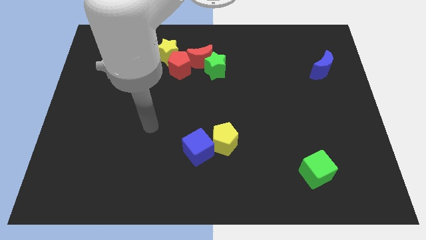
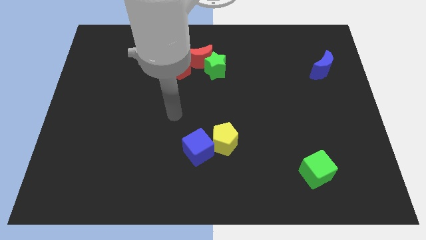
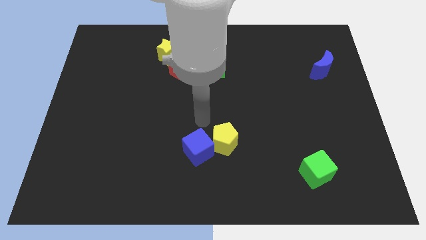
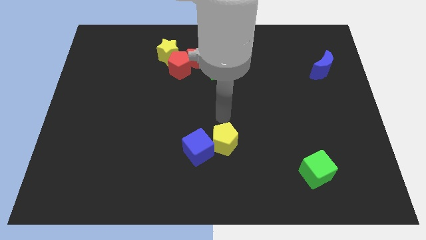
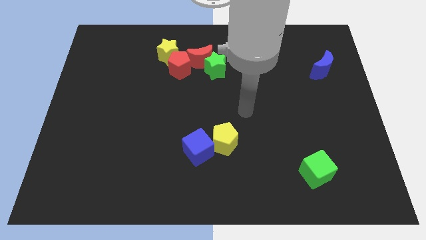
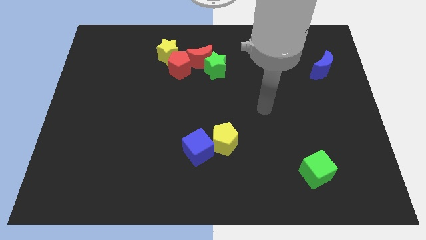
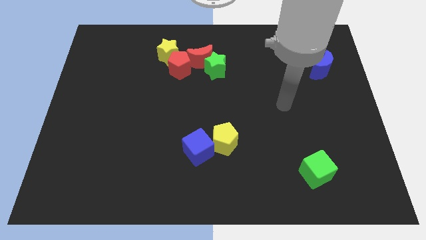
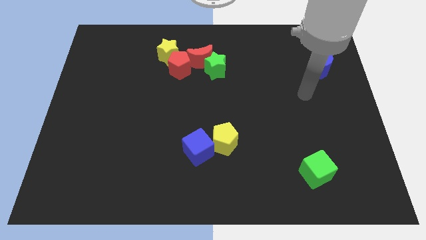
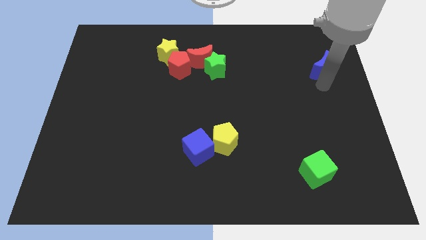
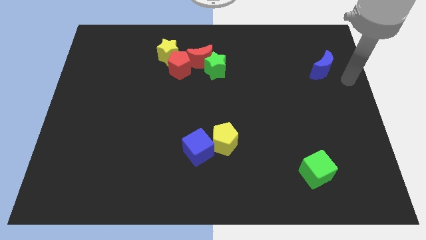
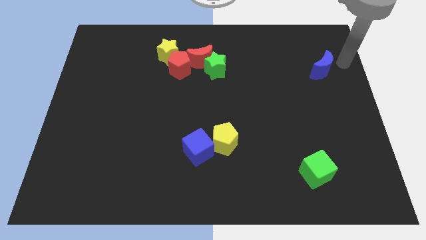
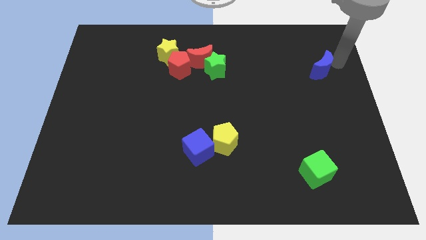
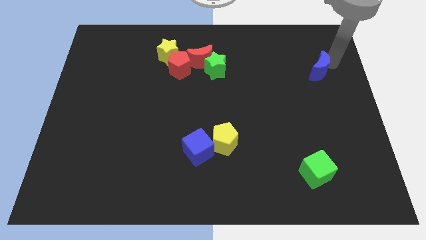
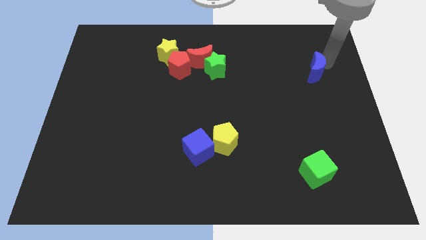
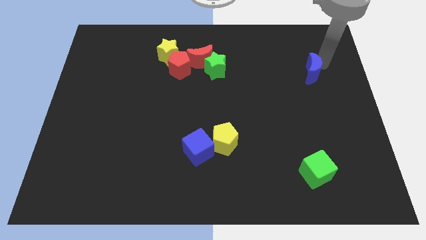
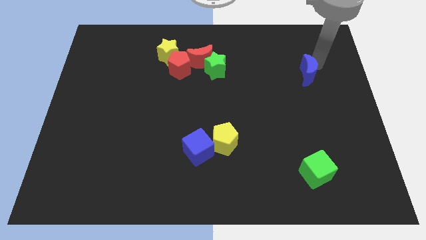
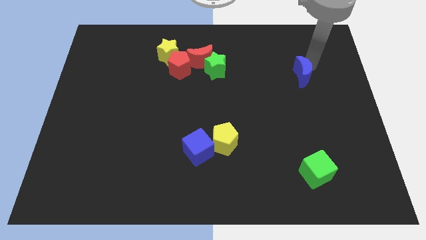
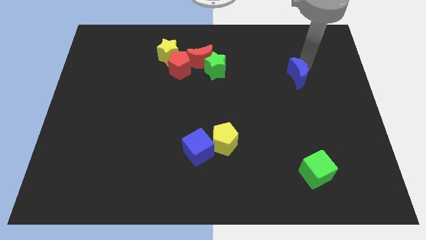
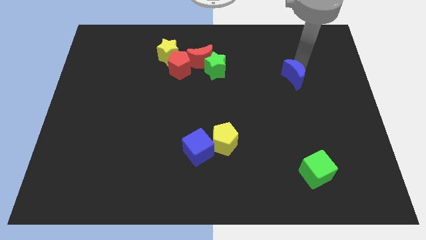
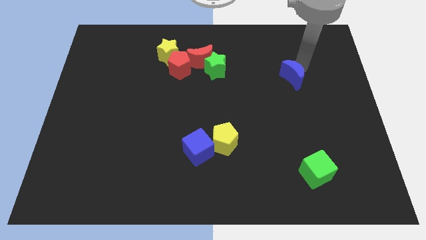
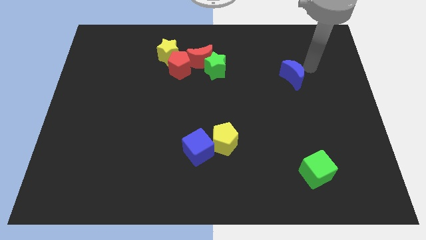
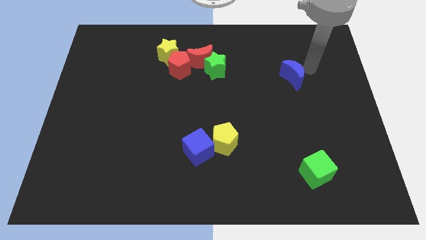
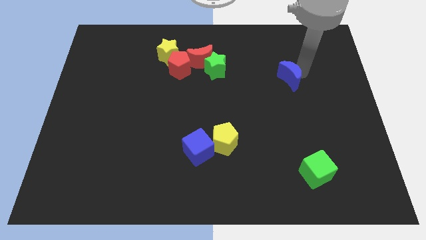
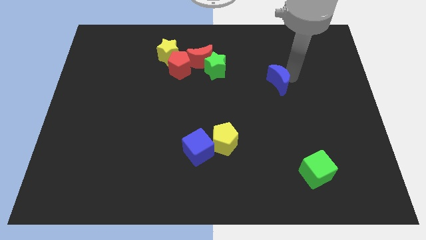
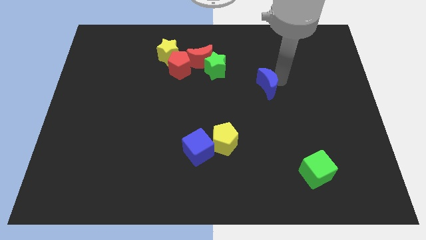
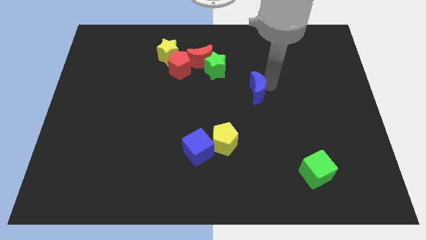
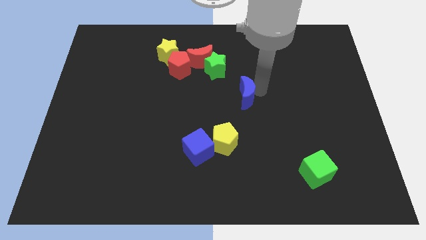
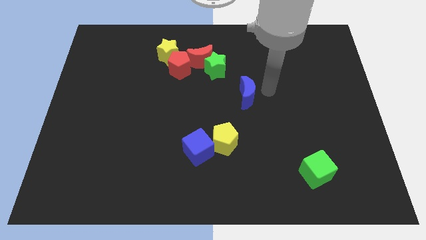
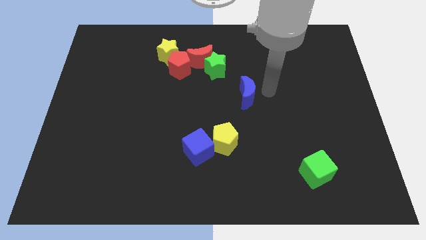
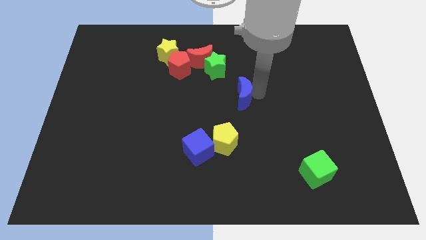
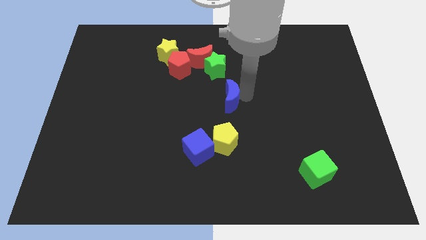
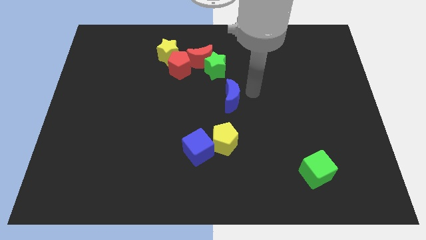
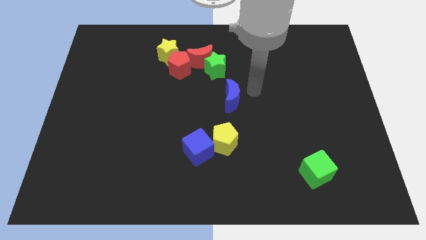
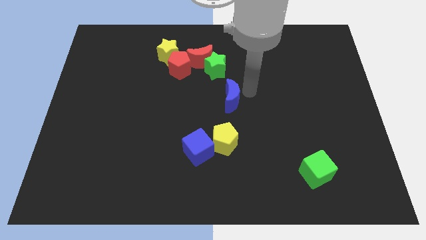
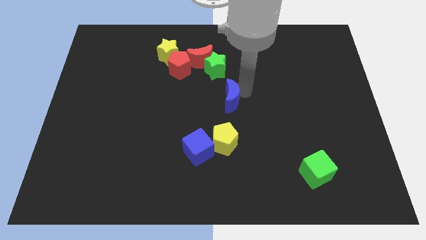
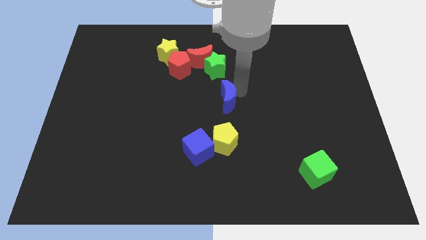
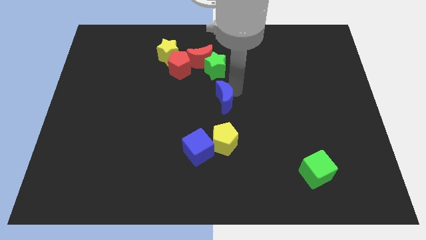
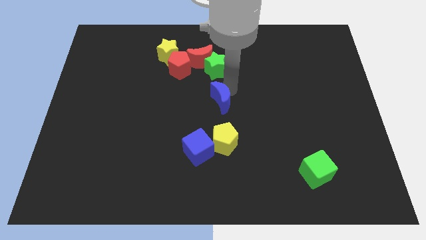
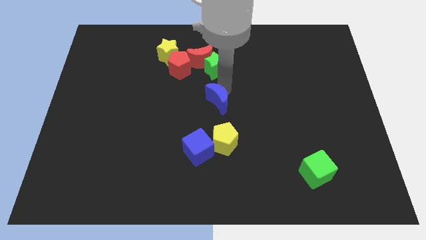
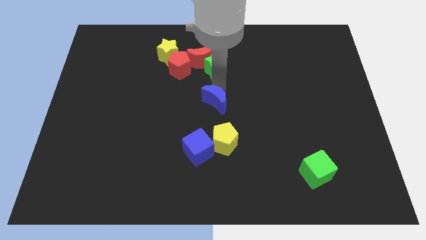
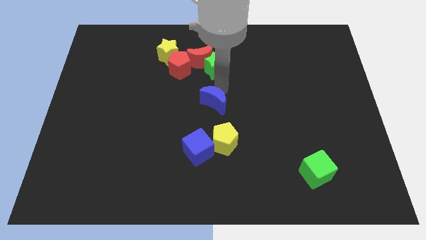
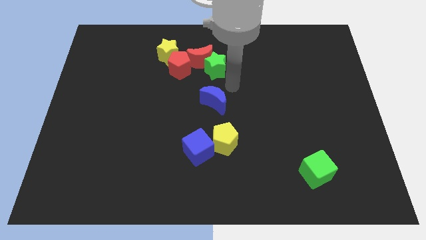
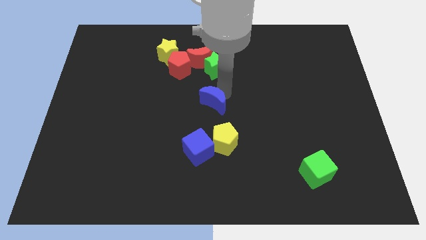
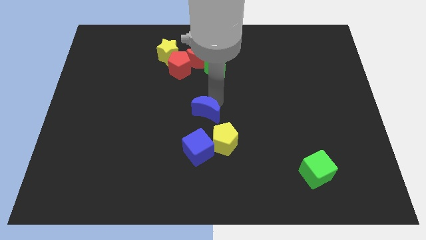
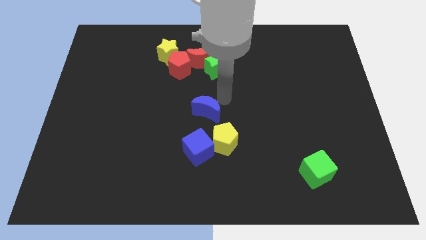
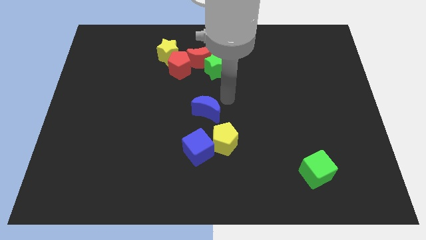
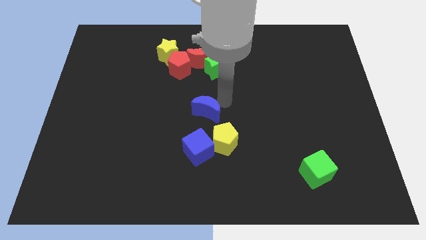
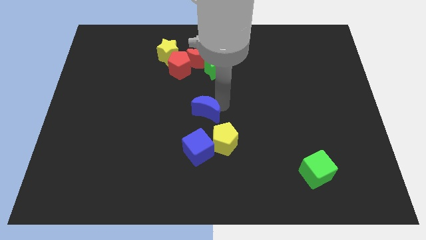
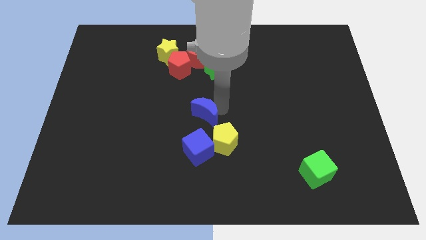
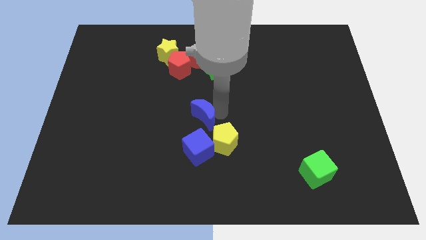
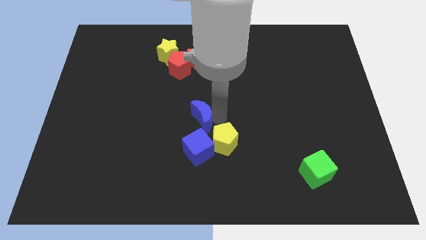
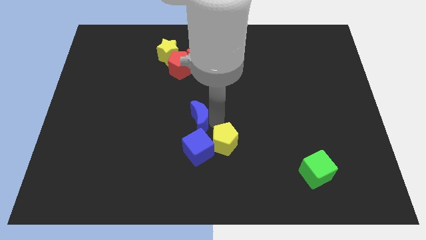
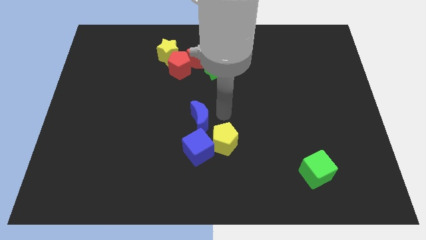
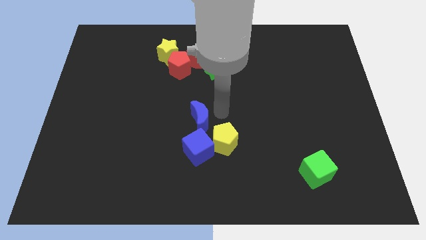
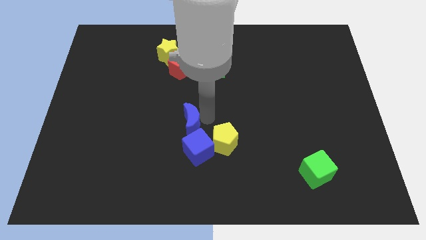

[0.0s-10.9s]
put the blue moon diagonally up and to the left of the blue cube

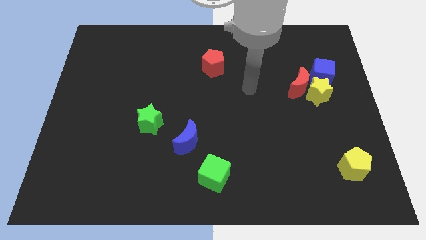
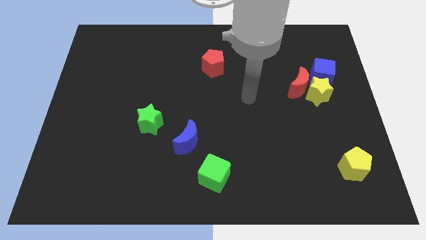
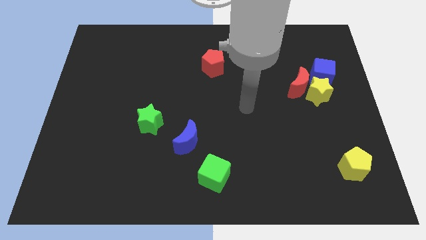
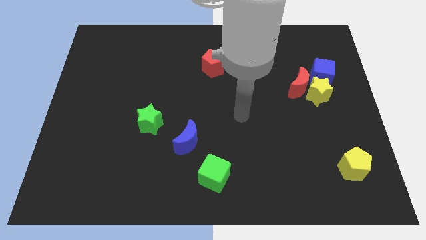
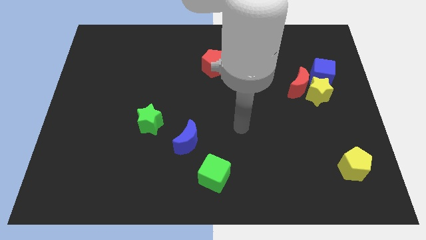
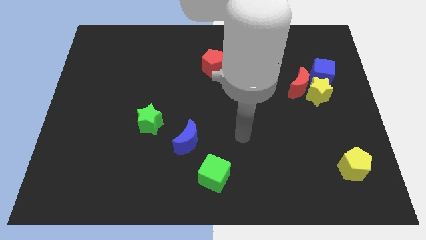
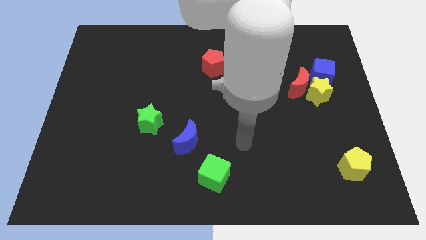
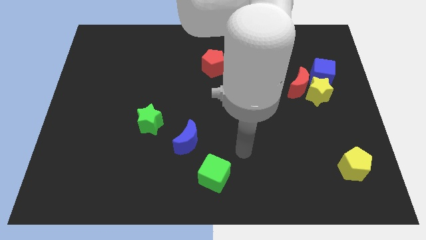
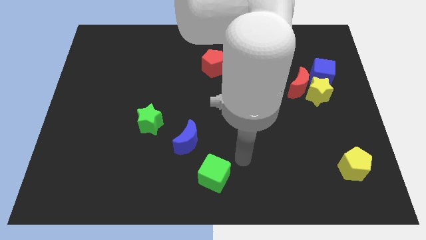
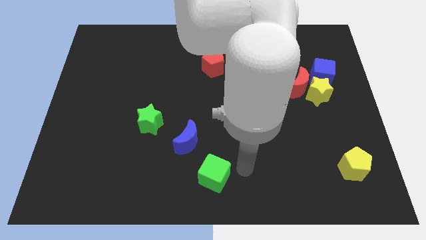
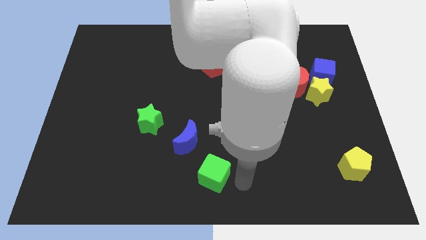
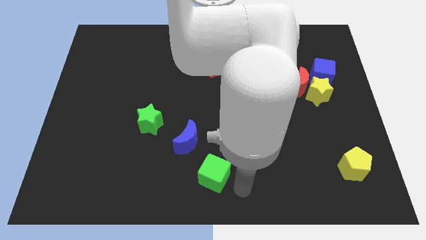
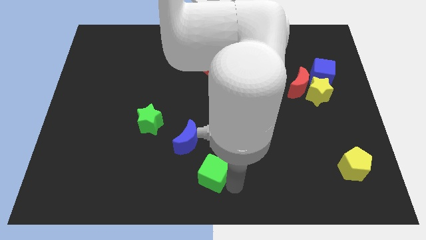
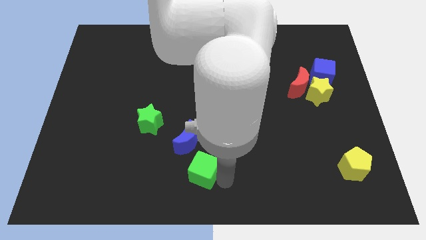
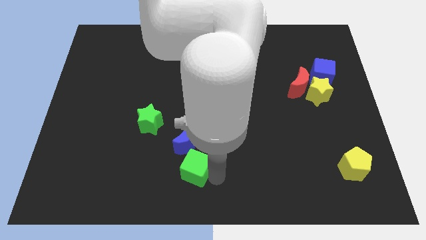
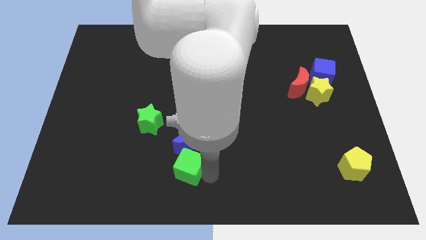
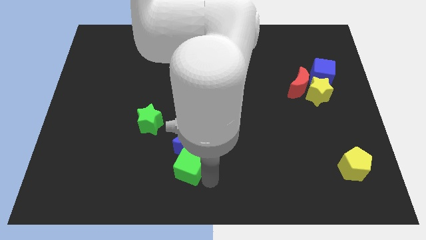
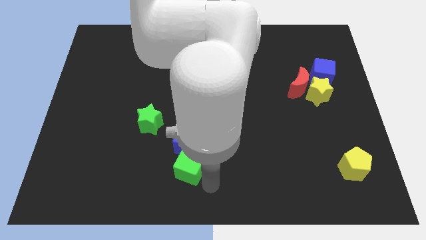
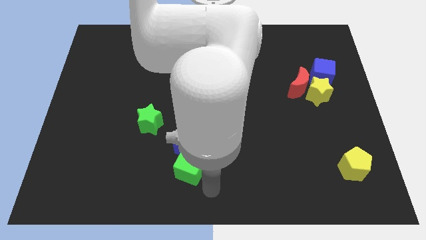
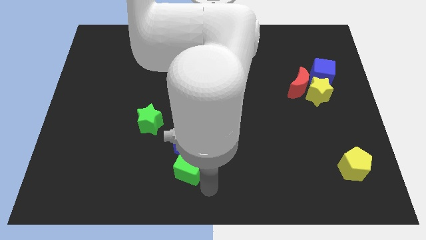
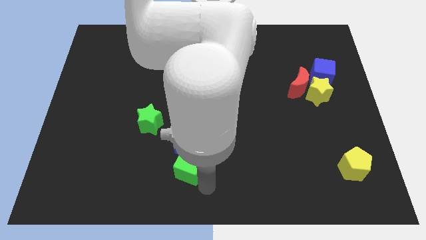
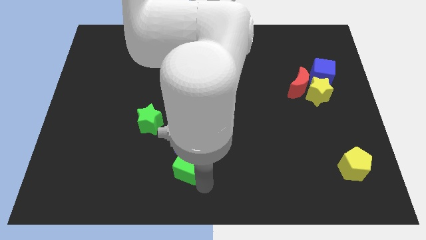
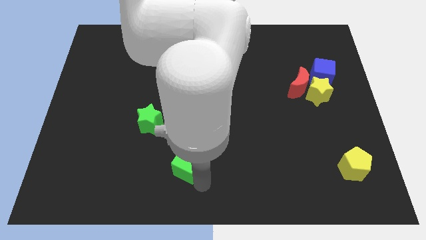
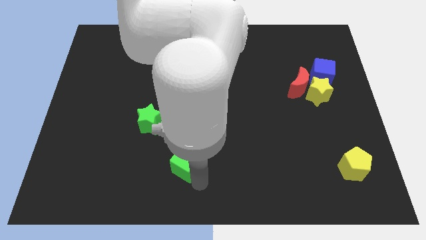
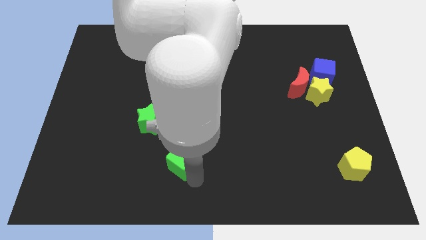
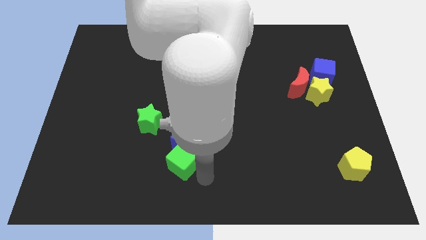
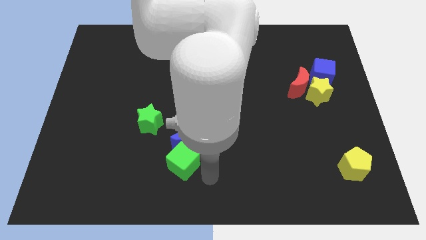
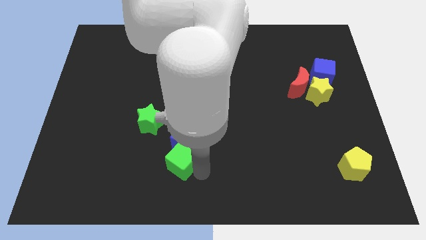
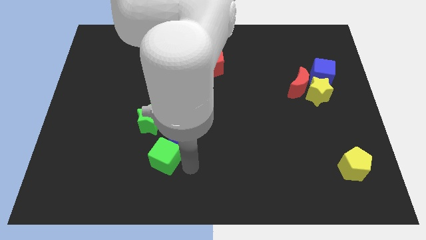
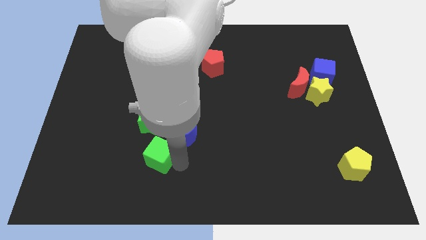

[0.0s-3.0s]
move the green cube to the left side of the blue moon
